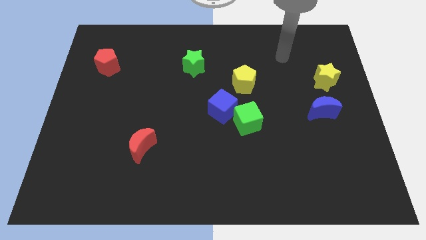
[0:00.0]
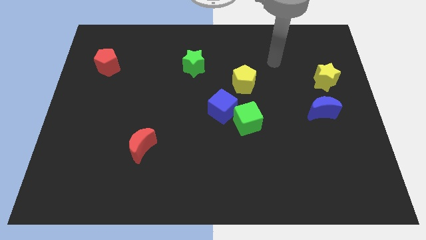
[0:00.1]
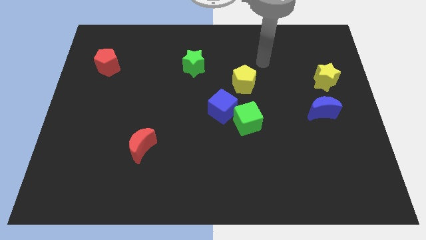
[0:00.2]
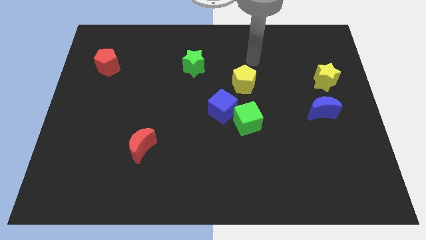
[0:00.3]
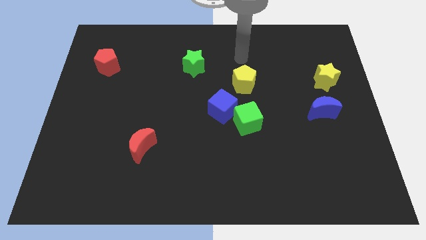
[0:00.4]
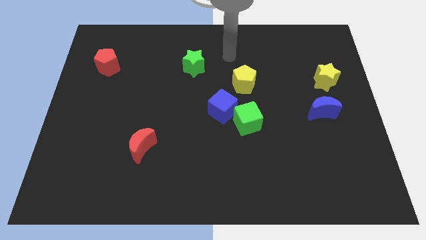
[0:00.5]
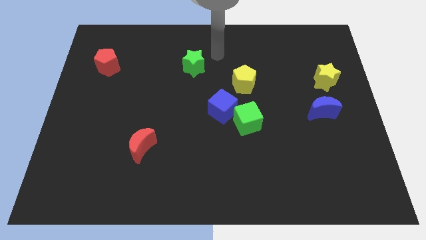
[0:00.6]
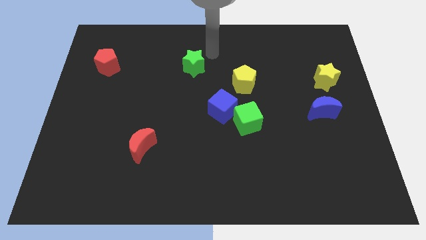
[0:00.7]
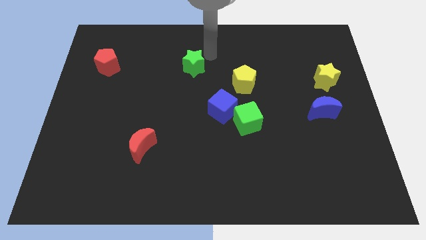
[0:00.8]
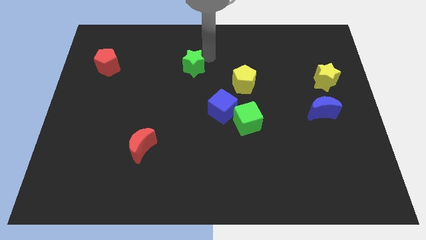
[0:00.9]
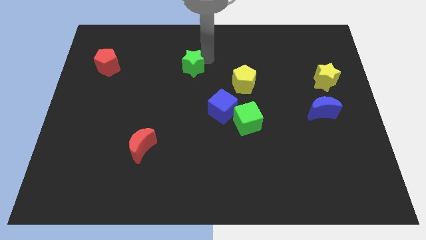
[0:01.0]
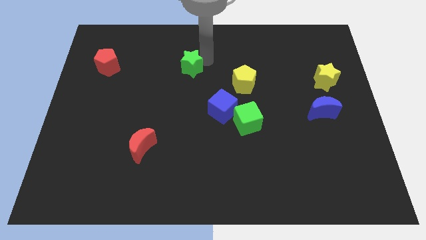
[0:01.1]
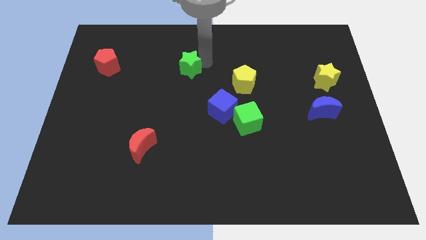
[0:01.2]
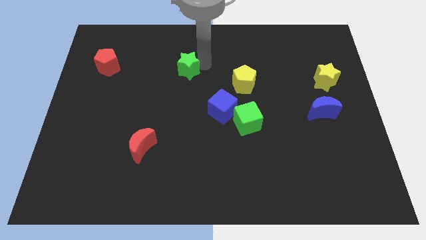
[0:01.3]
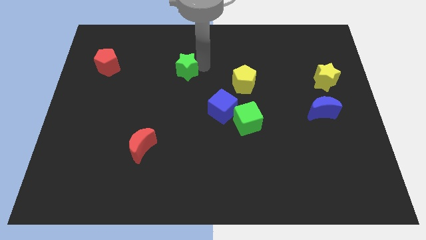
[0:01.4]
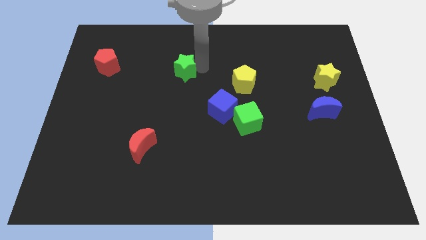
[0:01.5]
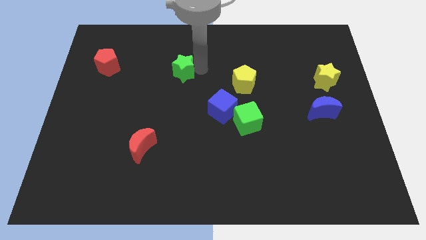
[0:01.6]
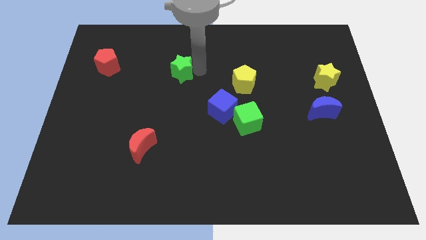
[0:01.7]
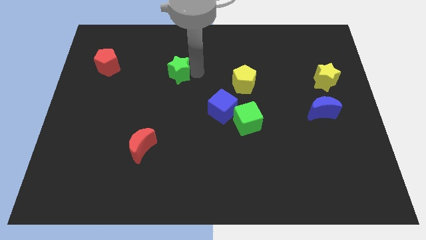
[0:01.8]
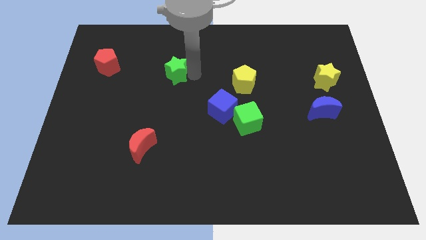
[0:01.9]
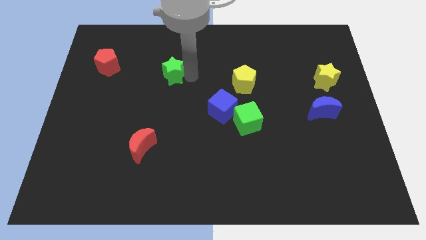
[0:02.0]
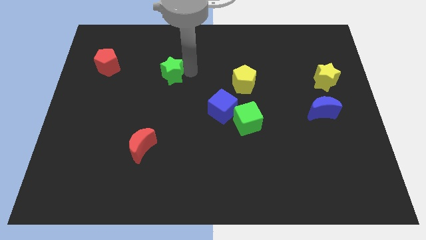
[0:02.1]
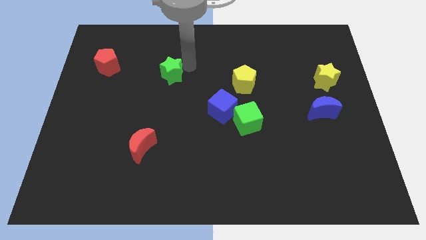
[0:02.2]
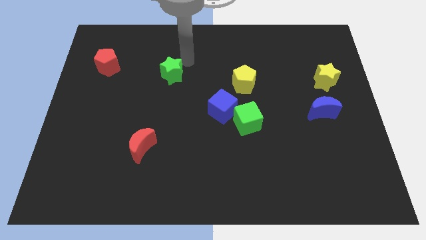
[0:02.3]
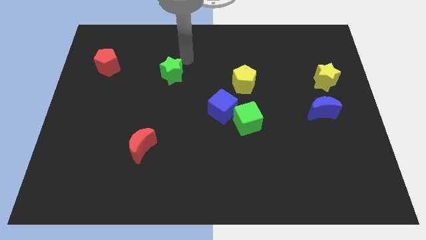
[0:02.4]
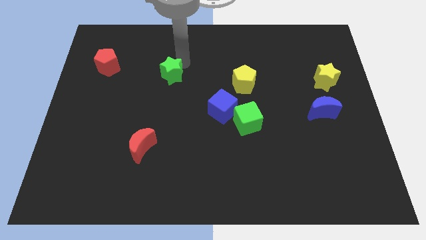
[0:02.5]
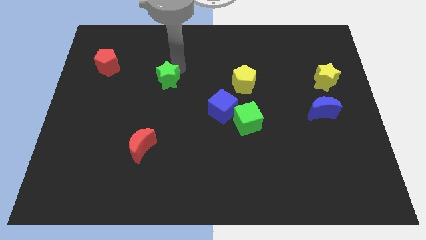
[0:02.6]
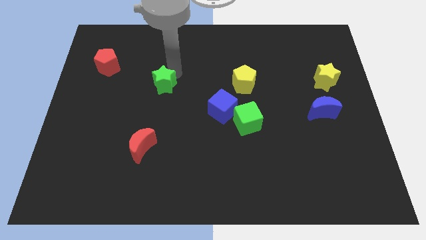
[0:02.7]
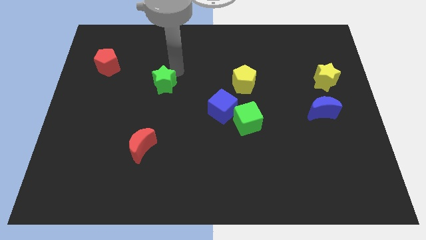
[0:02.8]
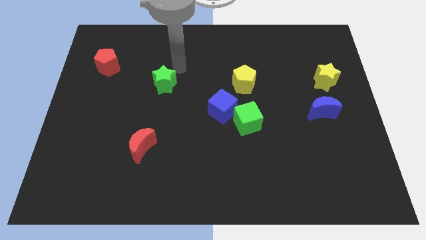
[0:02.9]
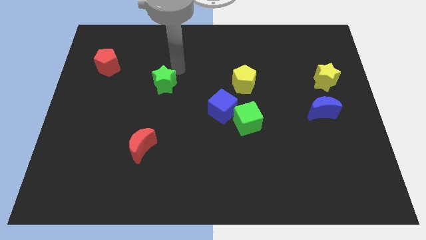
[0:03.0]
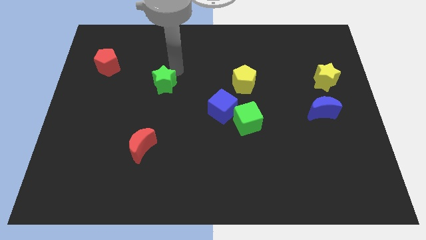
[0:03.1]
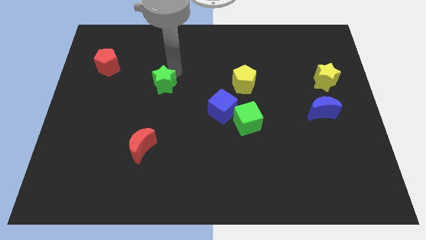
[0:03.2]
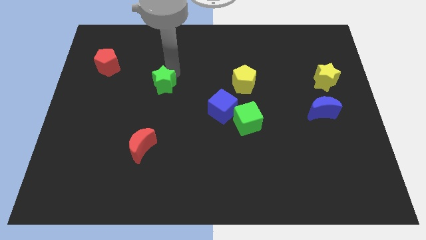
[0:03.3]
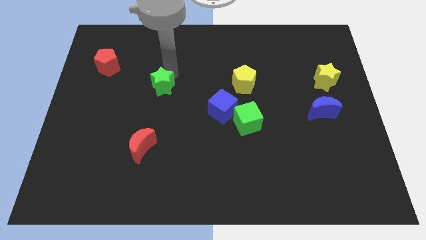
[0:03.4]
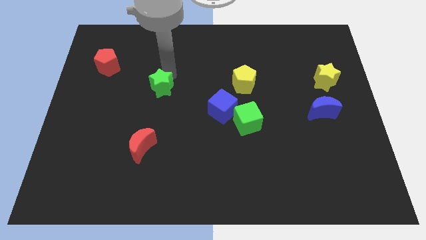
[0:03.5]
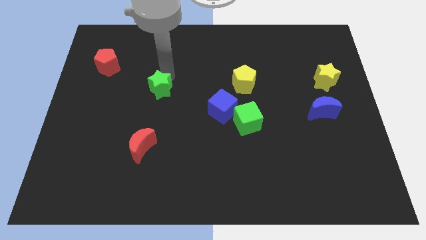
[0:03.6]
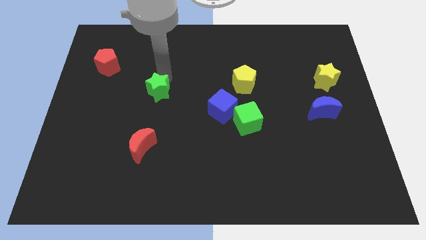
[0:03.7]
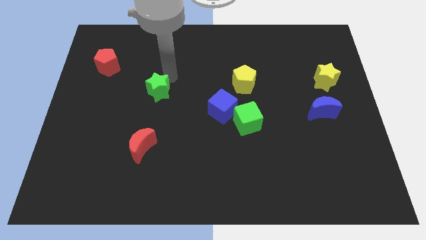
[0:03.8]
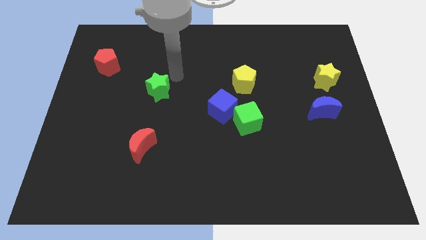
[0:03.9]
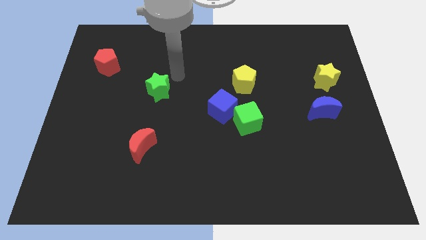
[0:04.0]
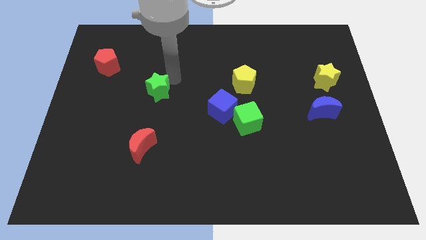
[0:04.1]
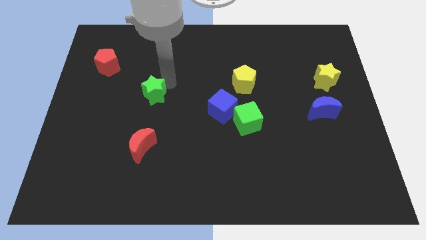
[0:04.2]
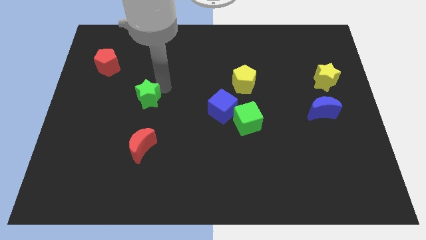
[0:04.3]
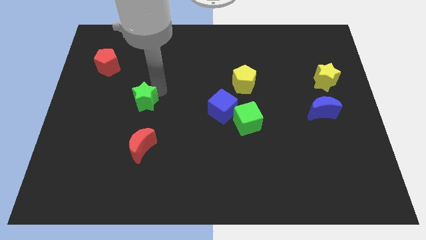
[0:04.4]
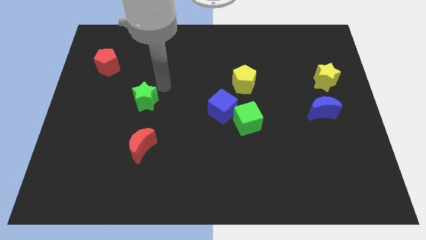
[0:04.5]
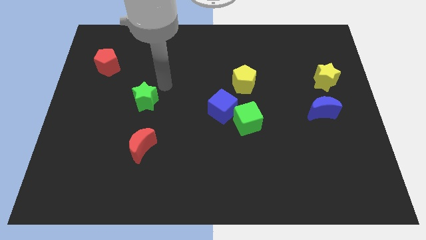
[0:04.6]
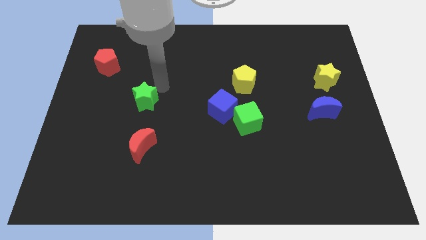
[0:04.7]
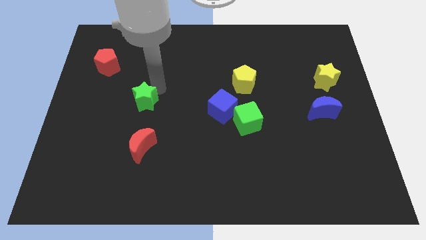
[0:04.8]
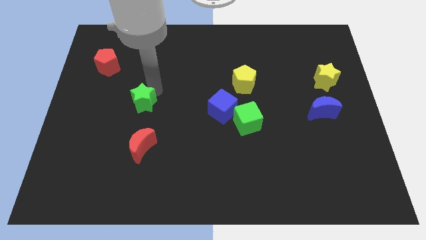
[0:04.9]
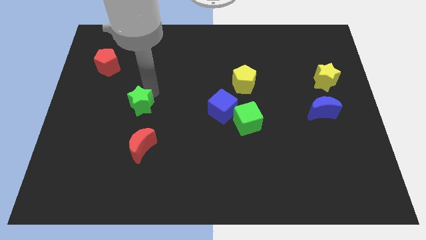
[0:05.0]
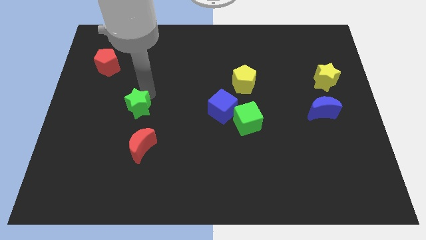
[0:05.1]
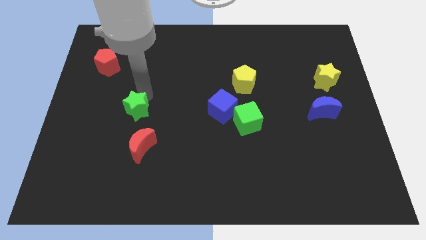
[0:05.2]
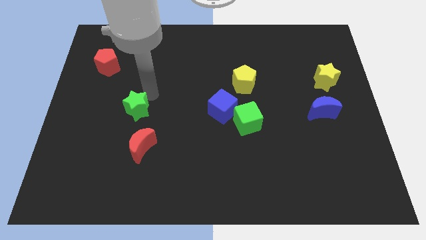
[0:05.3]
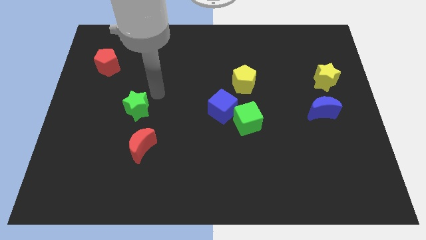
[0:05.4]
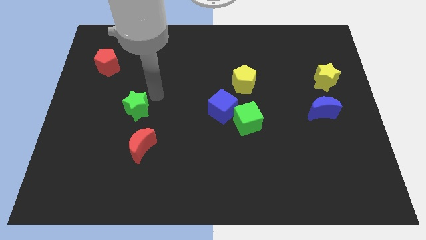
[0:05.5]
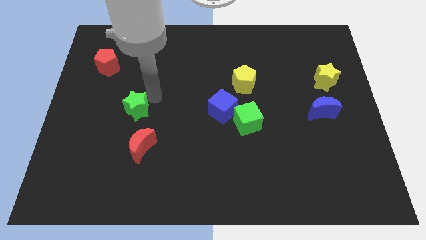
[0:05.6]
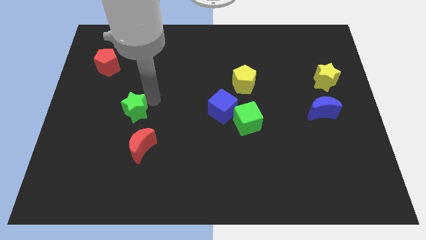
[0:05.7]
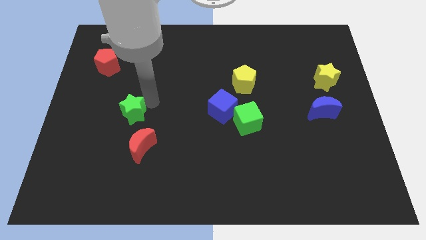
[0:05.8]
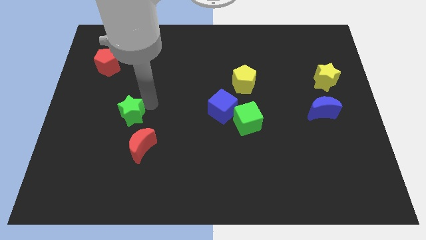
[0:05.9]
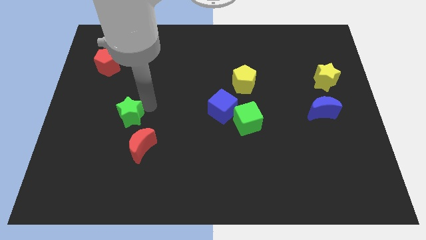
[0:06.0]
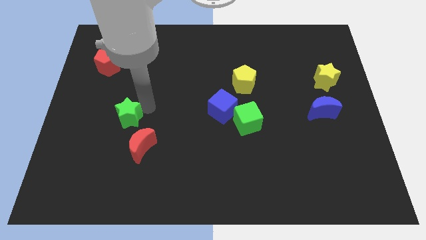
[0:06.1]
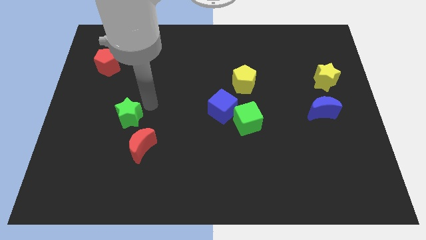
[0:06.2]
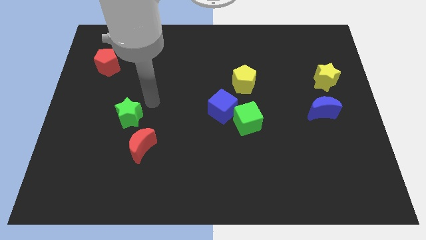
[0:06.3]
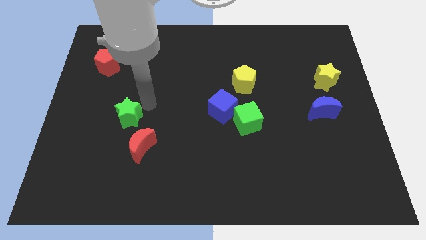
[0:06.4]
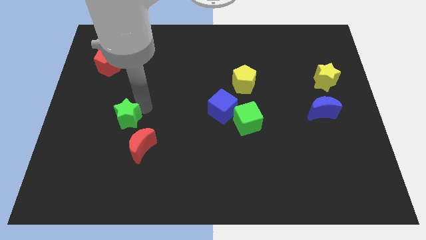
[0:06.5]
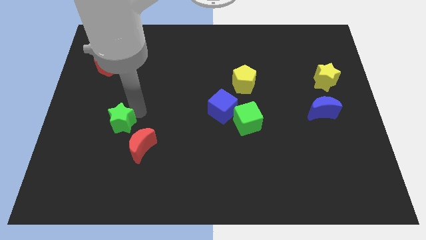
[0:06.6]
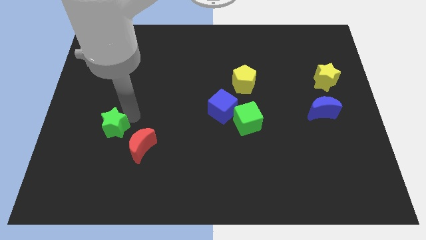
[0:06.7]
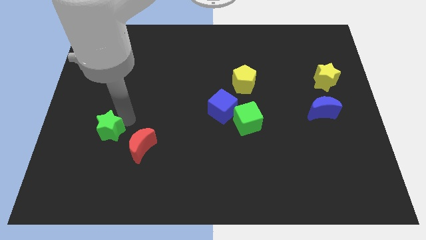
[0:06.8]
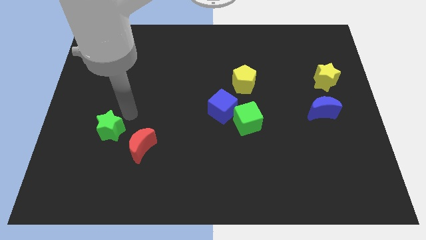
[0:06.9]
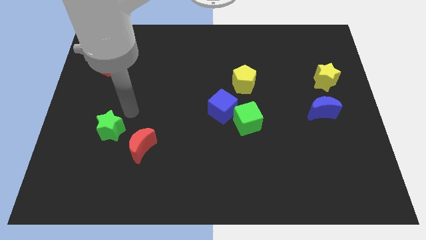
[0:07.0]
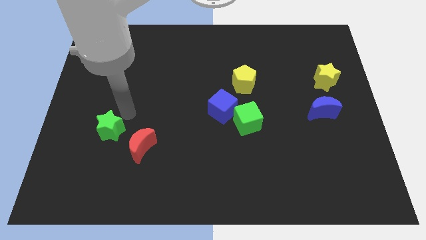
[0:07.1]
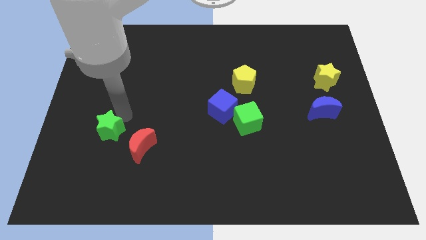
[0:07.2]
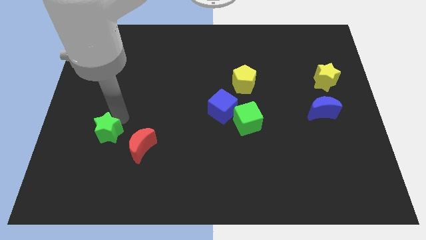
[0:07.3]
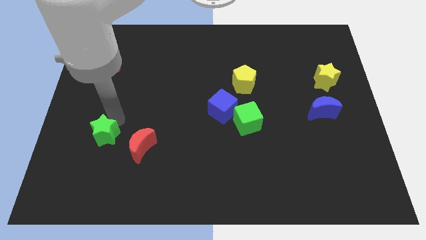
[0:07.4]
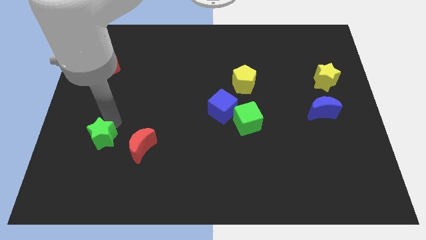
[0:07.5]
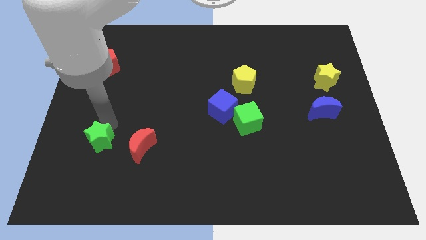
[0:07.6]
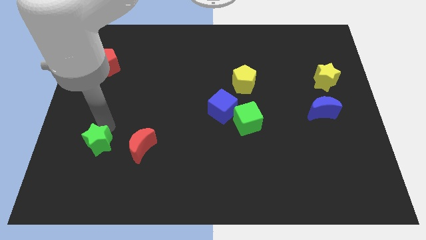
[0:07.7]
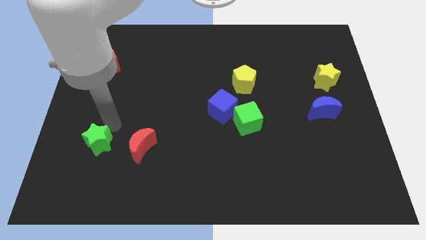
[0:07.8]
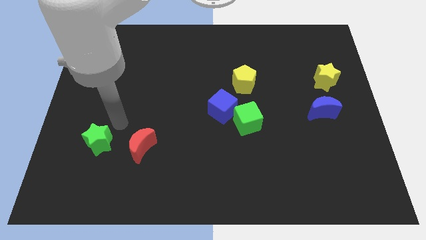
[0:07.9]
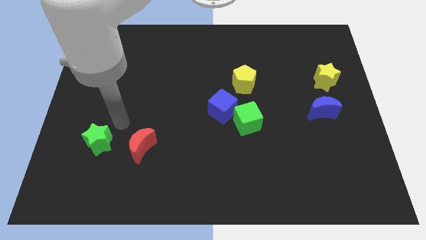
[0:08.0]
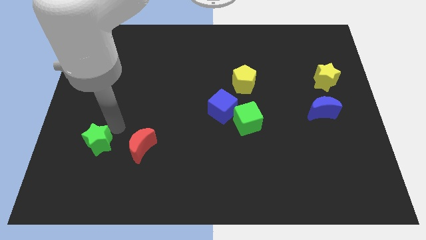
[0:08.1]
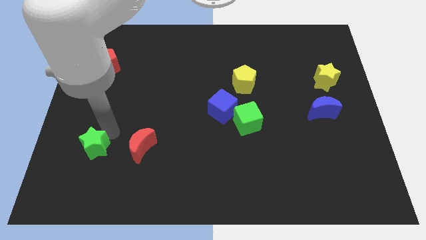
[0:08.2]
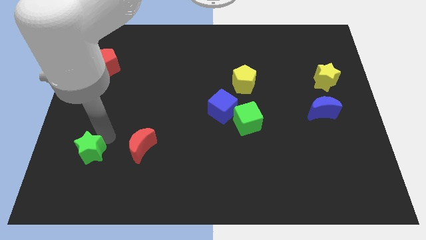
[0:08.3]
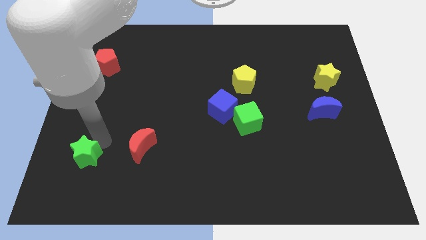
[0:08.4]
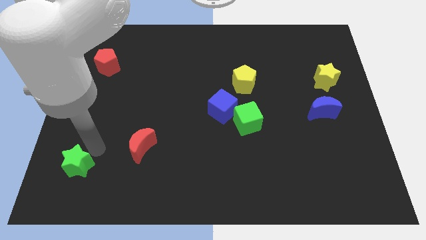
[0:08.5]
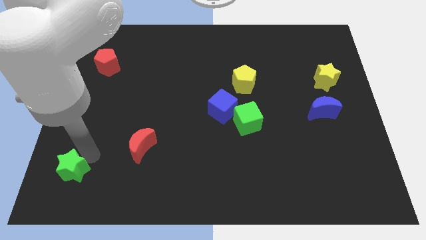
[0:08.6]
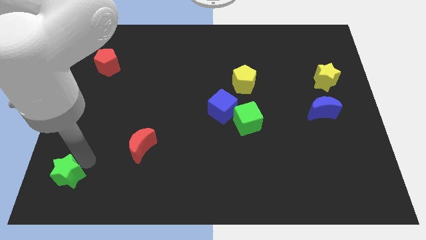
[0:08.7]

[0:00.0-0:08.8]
move the green star to the bottom left of the board
